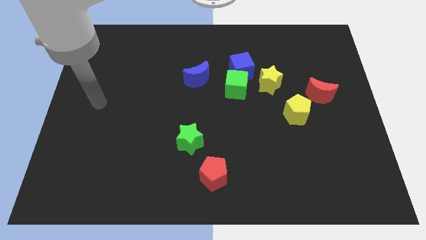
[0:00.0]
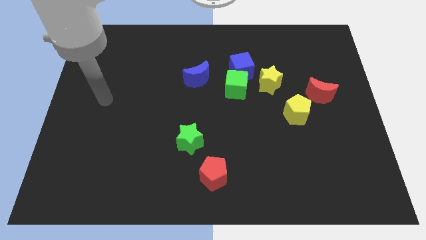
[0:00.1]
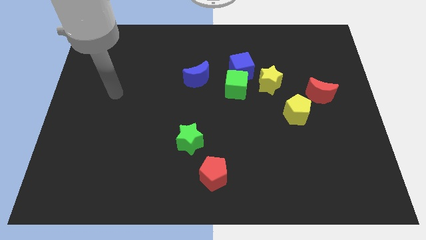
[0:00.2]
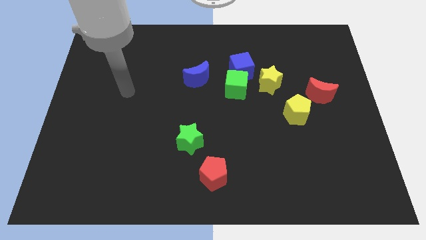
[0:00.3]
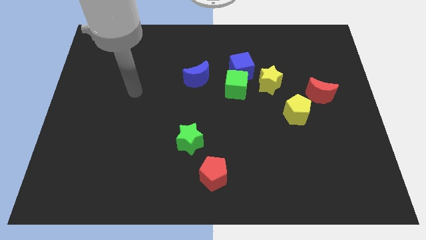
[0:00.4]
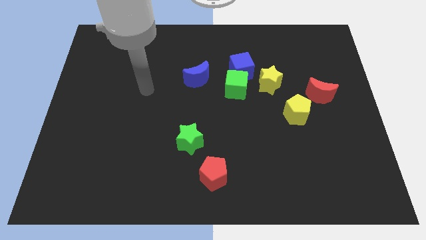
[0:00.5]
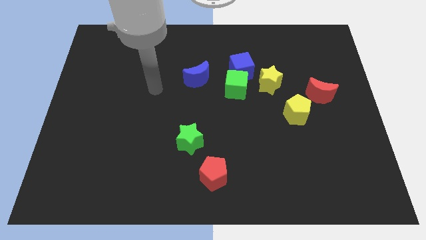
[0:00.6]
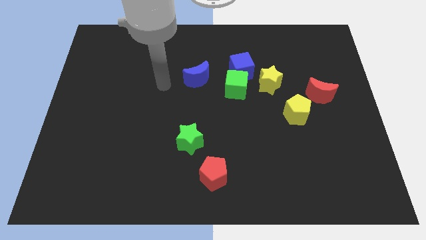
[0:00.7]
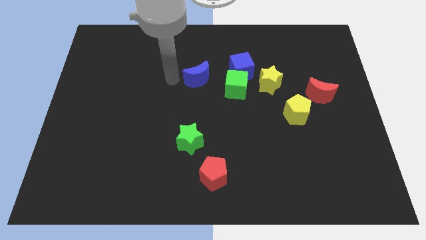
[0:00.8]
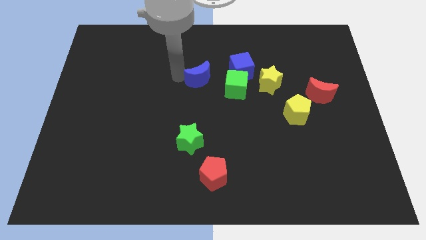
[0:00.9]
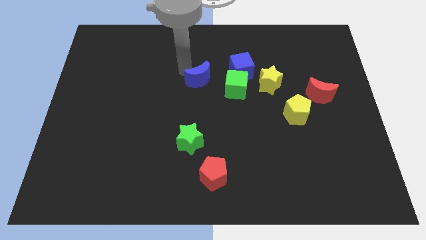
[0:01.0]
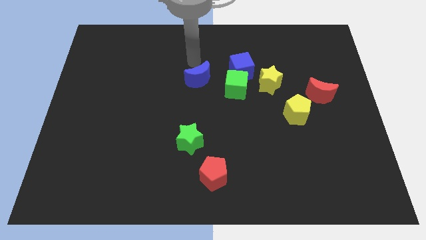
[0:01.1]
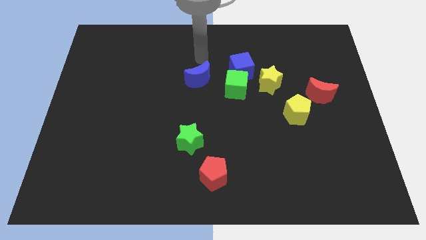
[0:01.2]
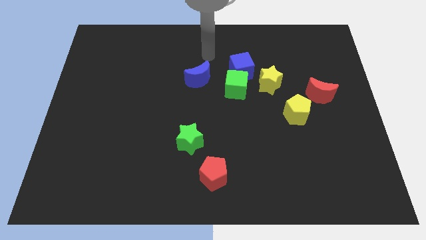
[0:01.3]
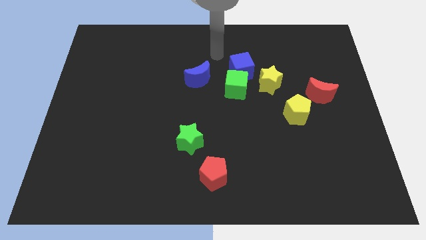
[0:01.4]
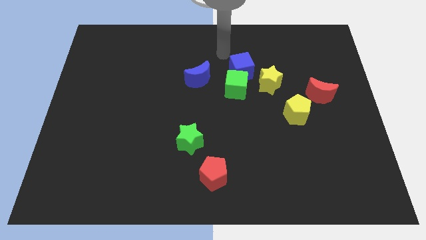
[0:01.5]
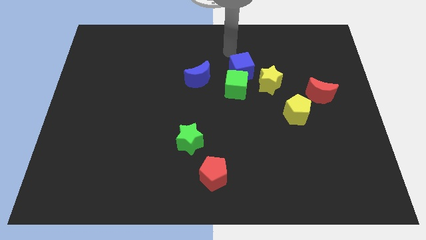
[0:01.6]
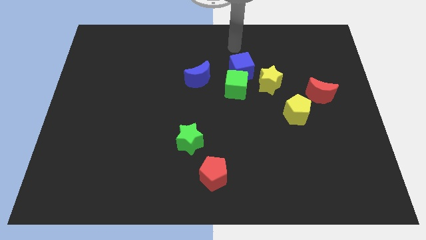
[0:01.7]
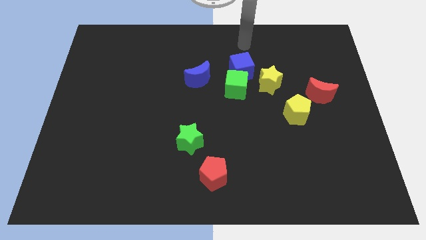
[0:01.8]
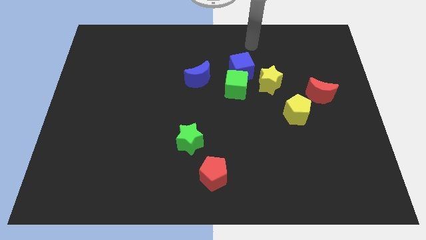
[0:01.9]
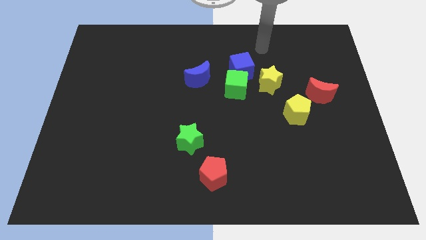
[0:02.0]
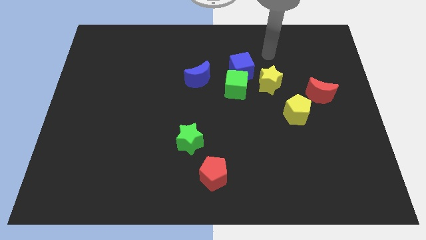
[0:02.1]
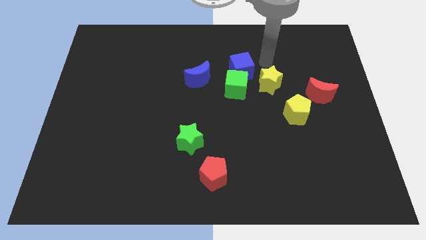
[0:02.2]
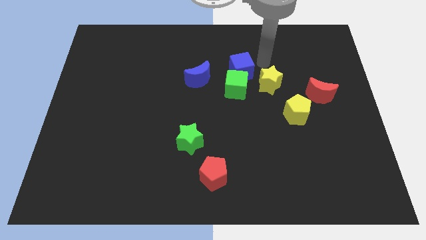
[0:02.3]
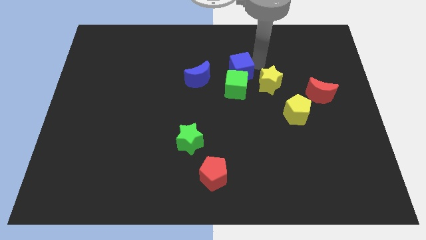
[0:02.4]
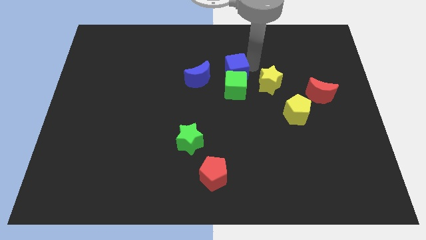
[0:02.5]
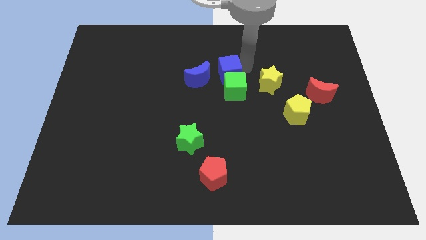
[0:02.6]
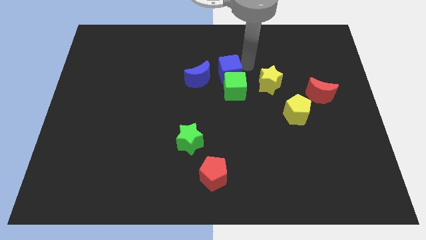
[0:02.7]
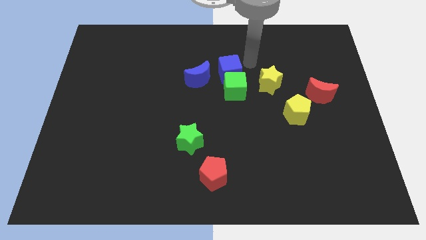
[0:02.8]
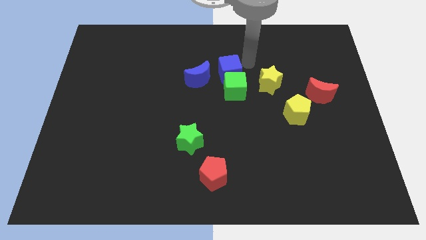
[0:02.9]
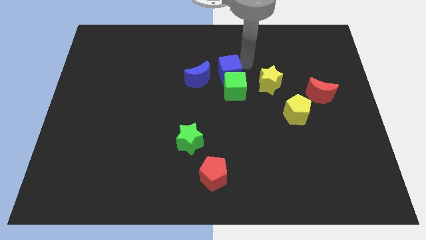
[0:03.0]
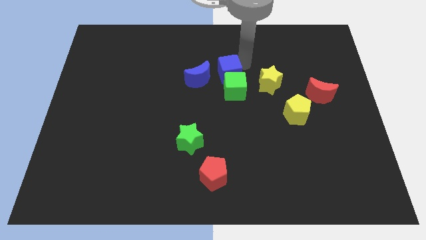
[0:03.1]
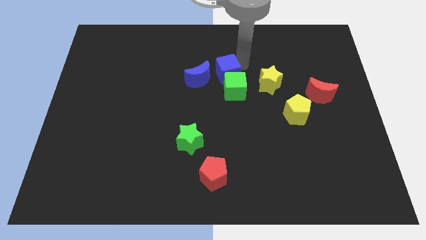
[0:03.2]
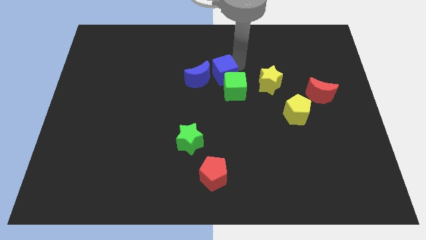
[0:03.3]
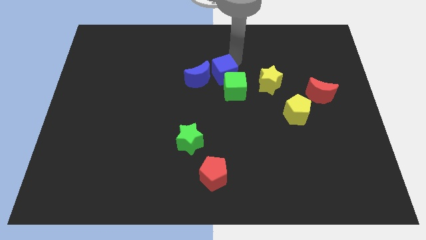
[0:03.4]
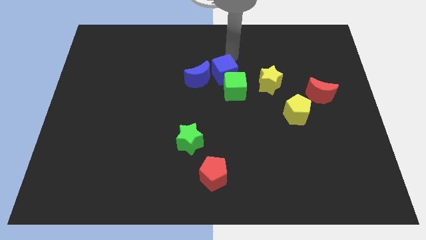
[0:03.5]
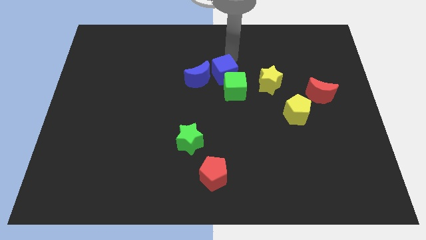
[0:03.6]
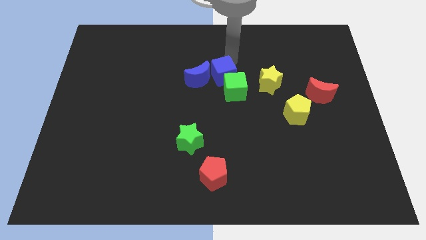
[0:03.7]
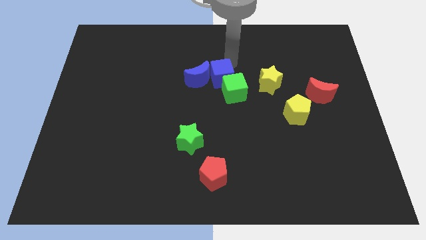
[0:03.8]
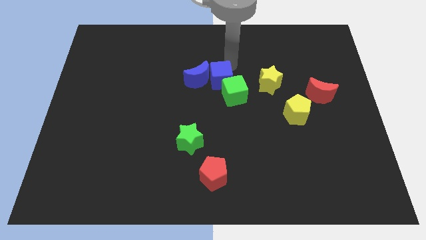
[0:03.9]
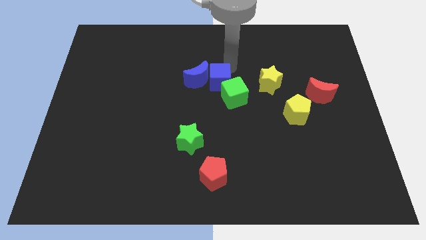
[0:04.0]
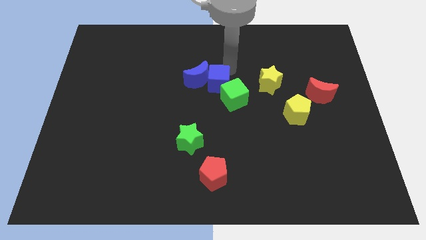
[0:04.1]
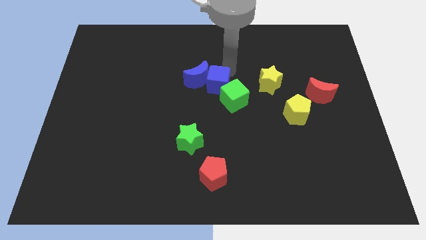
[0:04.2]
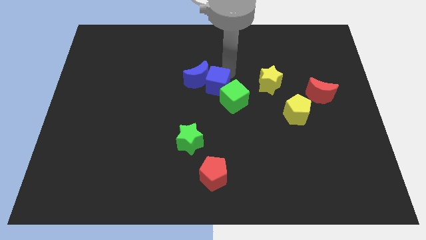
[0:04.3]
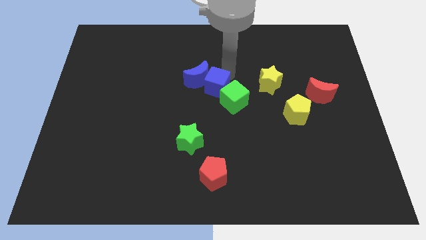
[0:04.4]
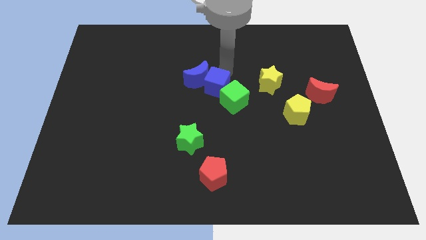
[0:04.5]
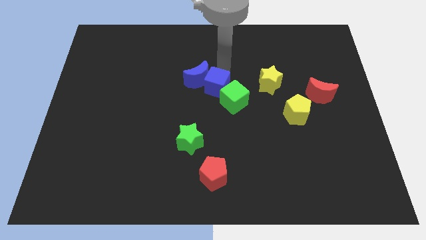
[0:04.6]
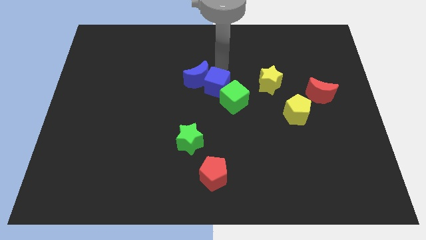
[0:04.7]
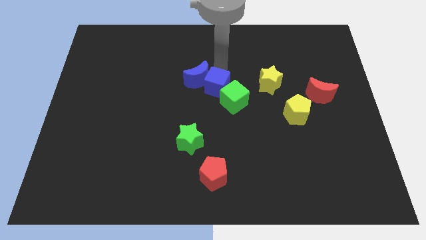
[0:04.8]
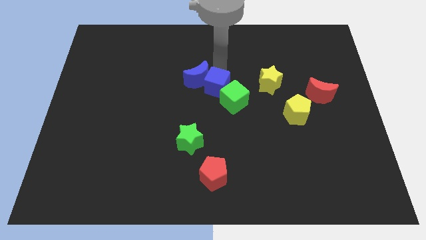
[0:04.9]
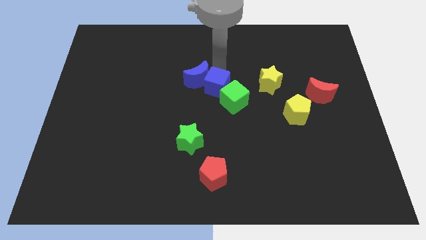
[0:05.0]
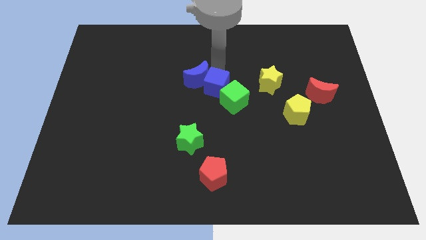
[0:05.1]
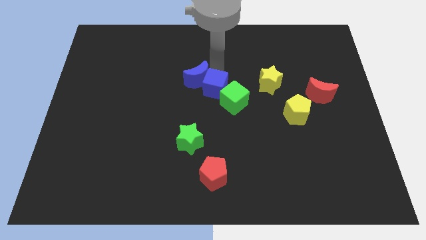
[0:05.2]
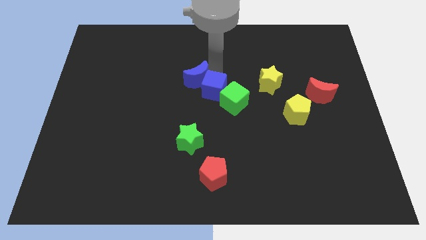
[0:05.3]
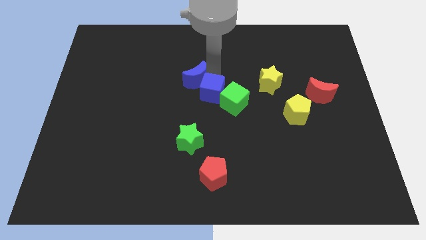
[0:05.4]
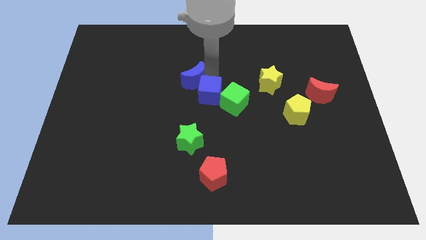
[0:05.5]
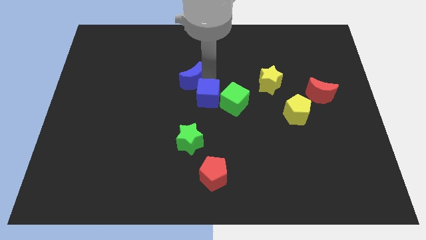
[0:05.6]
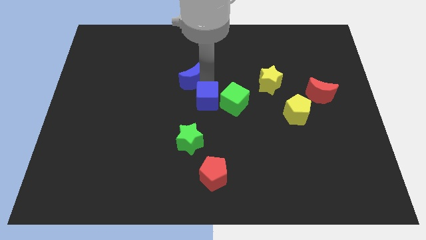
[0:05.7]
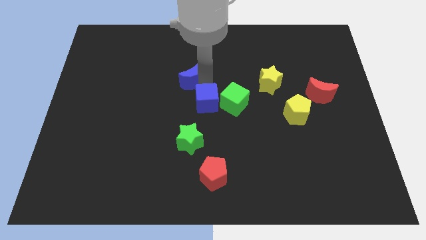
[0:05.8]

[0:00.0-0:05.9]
slightly slide the blue cube downwards

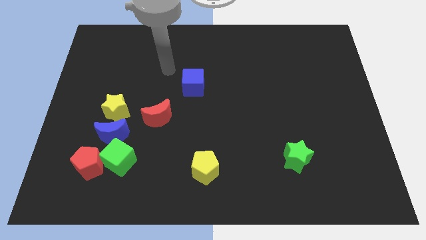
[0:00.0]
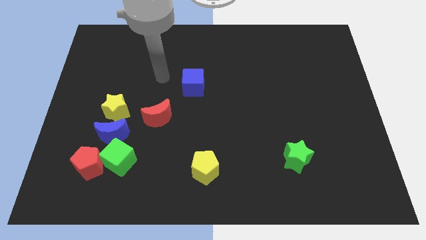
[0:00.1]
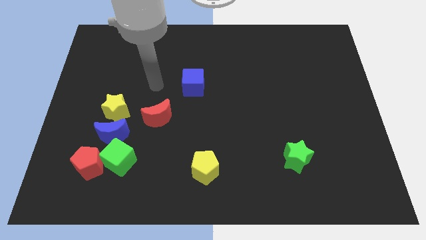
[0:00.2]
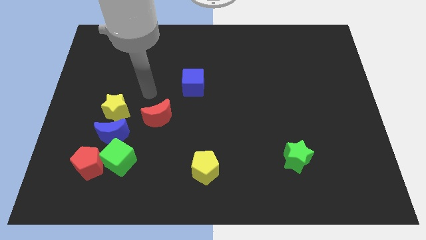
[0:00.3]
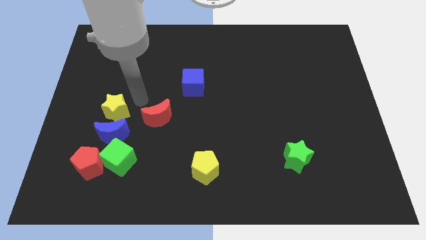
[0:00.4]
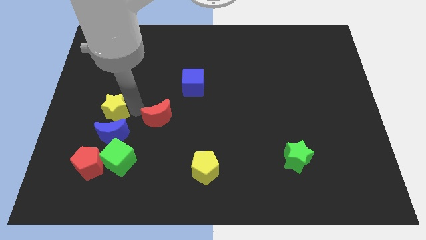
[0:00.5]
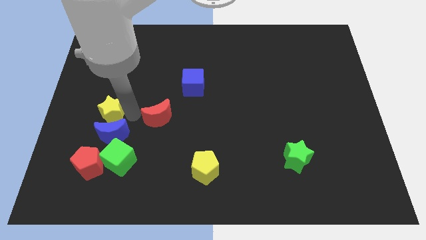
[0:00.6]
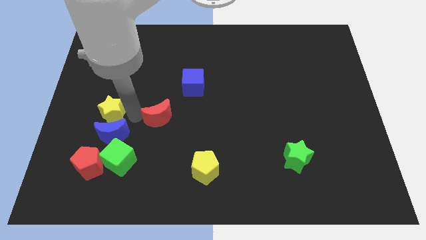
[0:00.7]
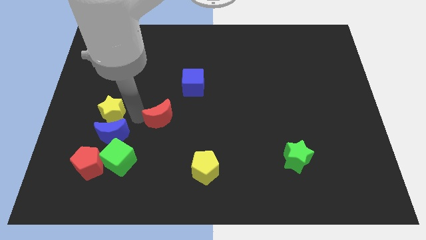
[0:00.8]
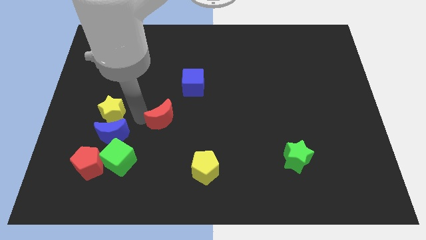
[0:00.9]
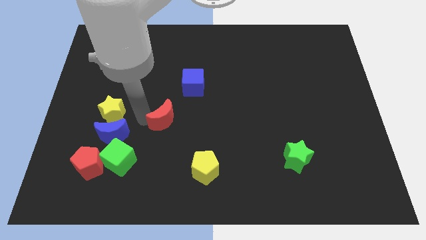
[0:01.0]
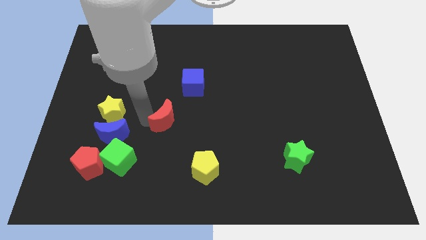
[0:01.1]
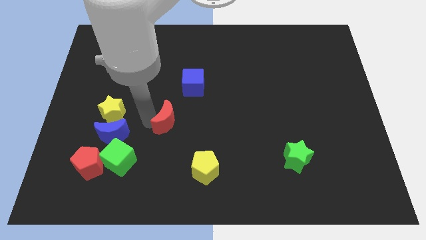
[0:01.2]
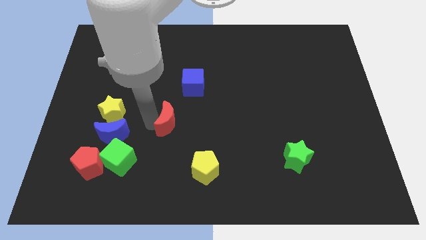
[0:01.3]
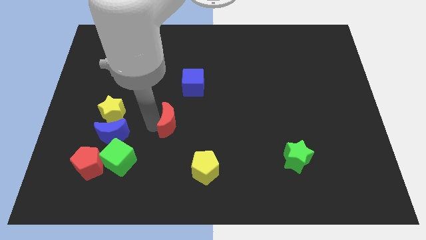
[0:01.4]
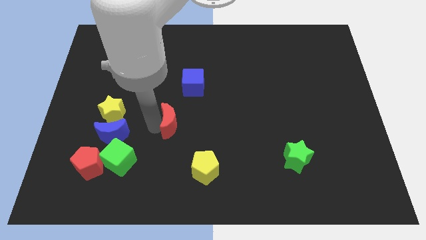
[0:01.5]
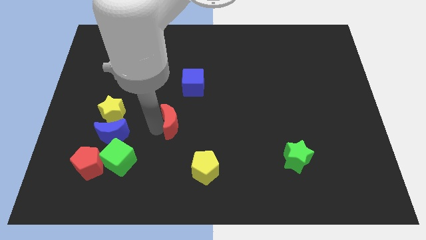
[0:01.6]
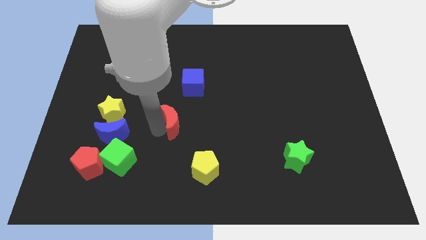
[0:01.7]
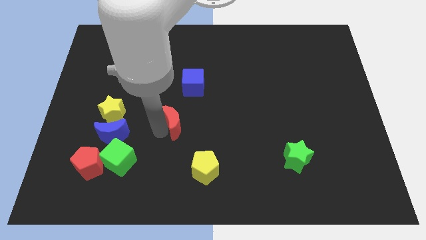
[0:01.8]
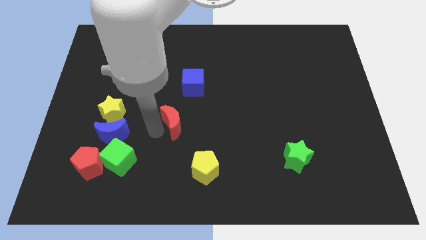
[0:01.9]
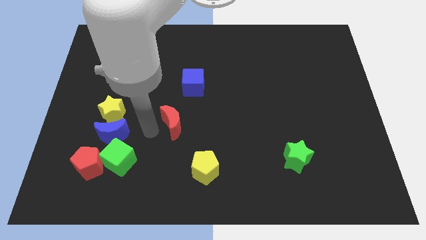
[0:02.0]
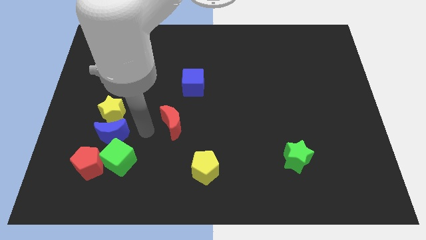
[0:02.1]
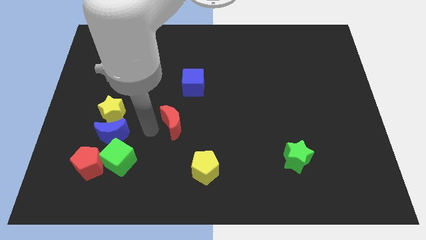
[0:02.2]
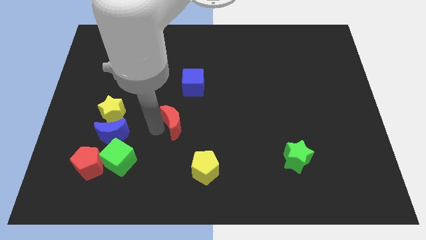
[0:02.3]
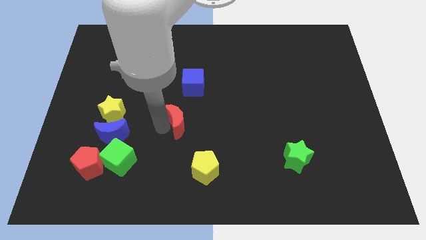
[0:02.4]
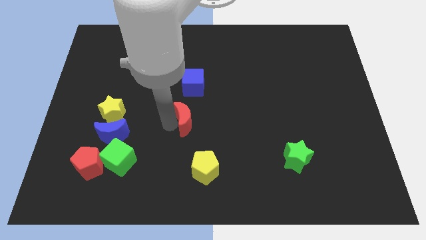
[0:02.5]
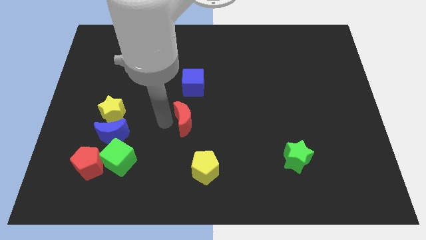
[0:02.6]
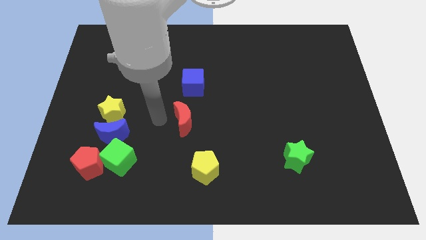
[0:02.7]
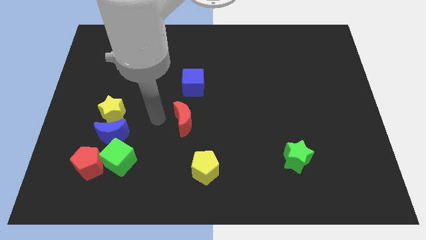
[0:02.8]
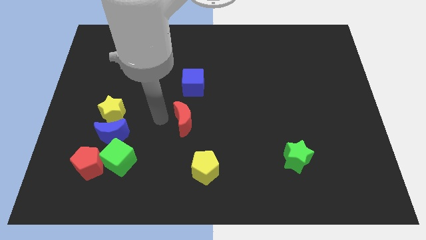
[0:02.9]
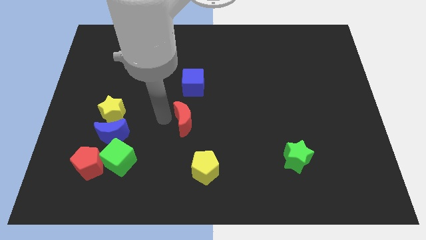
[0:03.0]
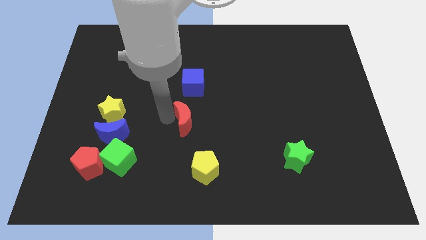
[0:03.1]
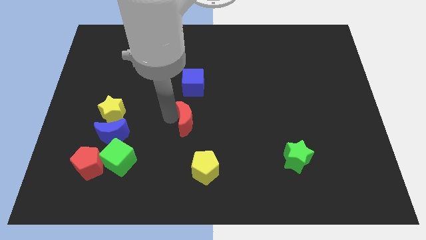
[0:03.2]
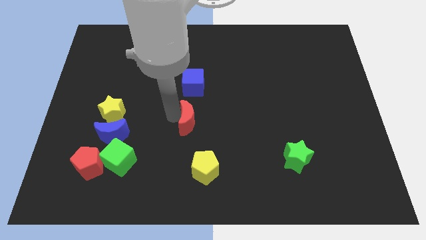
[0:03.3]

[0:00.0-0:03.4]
slightly slide the red moon to the right
